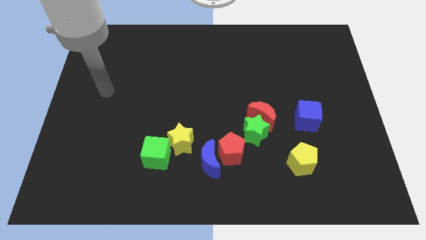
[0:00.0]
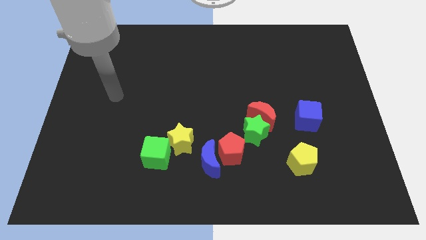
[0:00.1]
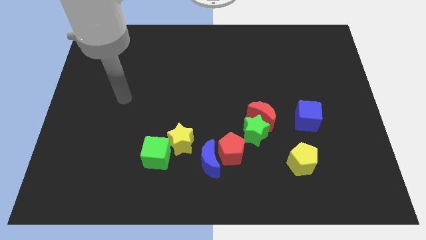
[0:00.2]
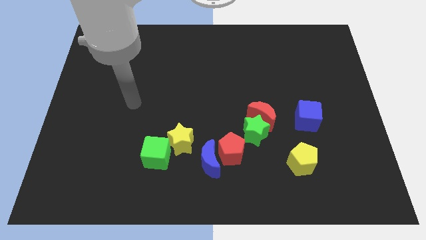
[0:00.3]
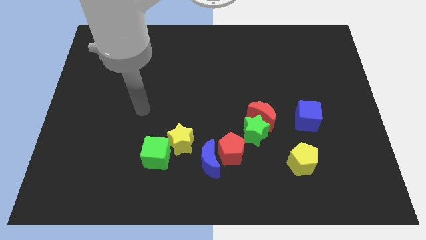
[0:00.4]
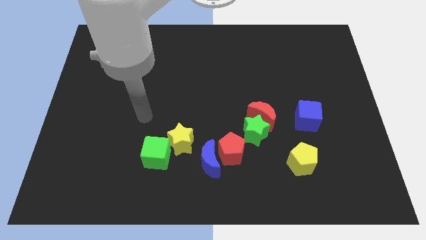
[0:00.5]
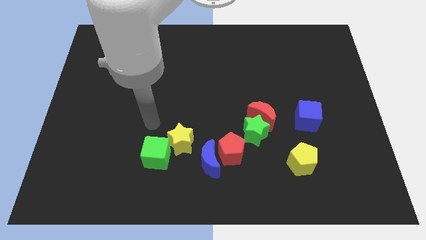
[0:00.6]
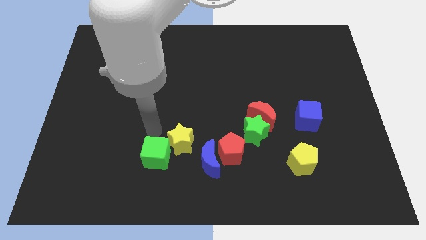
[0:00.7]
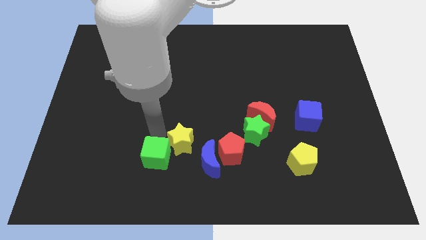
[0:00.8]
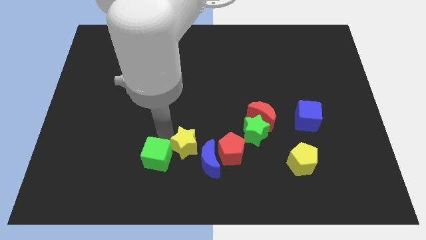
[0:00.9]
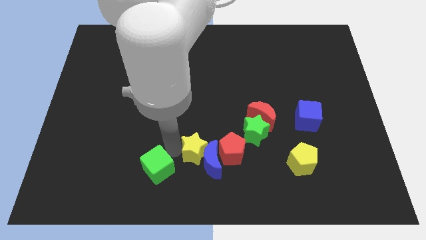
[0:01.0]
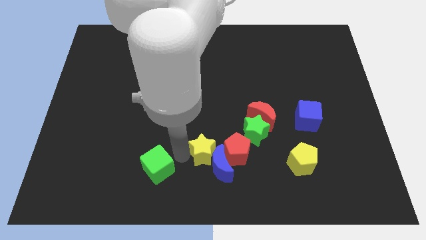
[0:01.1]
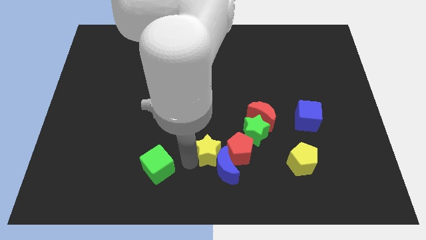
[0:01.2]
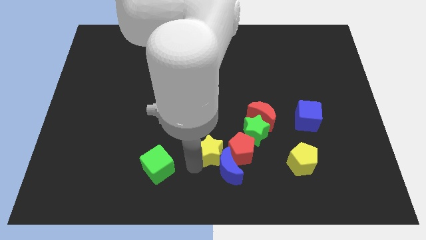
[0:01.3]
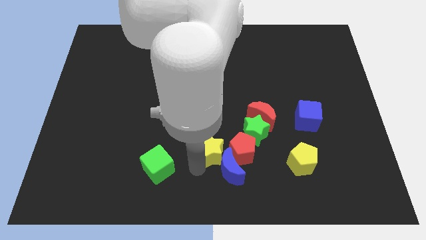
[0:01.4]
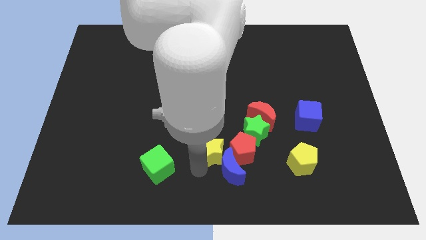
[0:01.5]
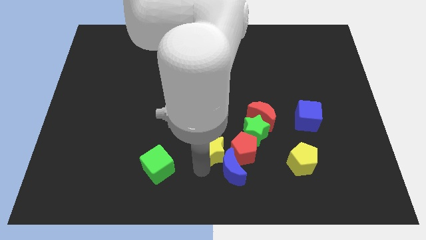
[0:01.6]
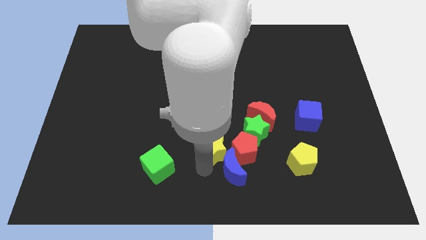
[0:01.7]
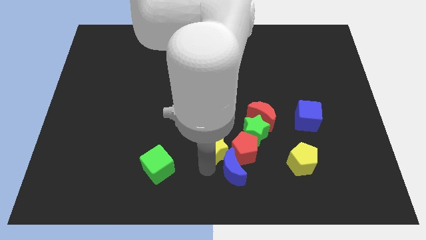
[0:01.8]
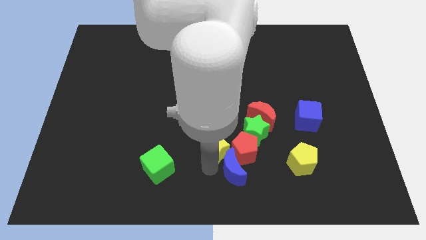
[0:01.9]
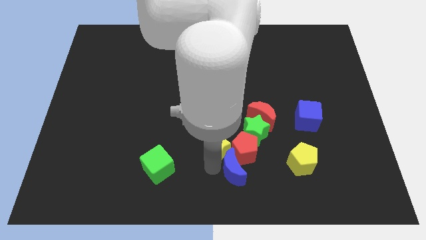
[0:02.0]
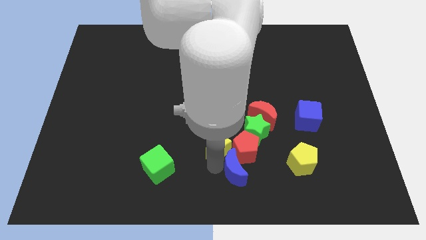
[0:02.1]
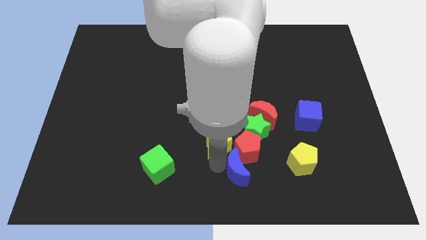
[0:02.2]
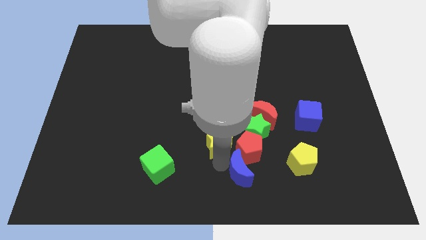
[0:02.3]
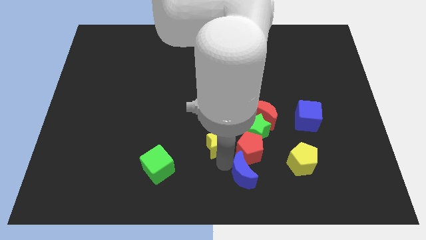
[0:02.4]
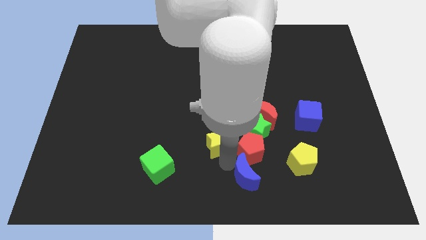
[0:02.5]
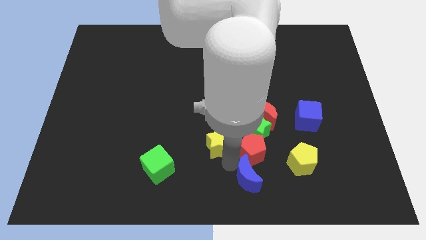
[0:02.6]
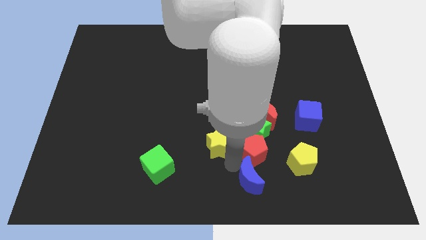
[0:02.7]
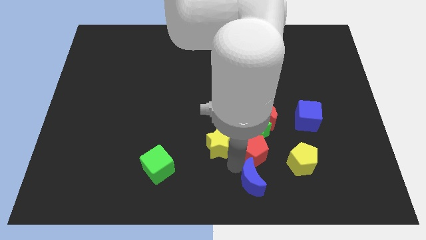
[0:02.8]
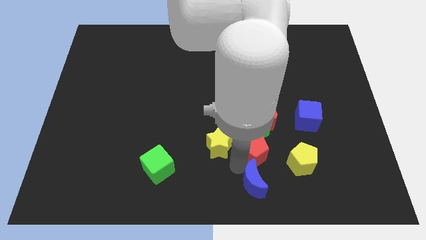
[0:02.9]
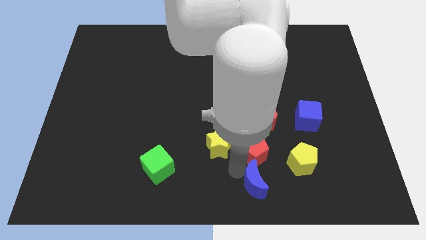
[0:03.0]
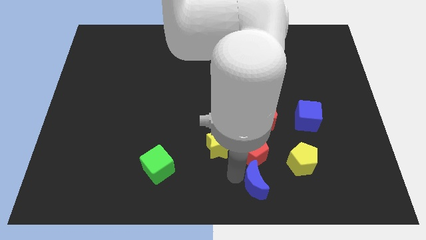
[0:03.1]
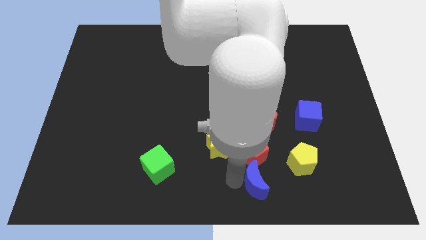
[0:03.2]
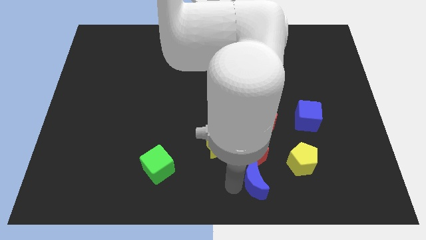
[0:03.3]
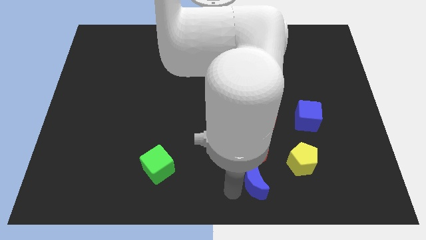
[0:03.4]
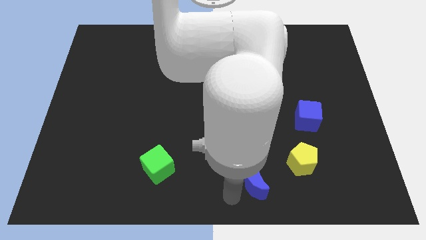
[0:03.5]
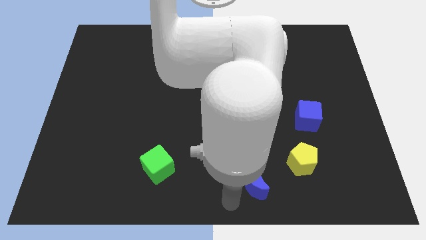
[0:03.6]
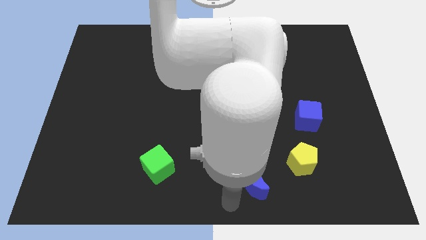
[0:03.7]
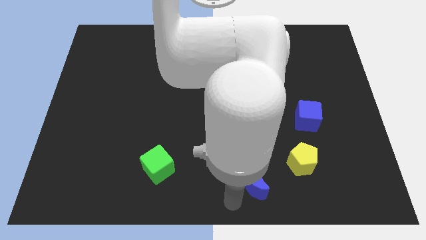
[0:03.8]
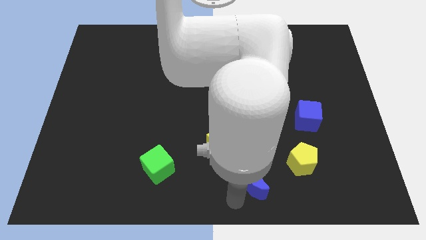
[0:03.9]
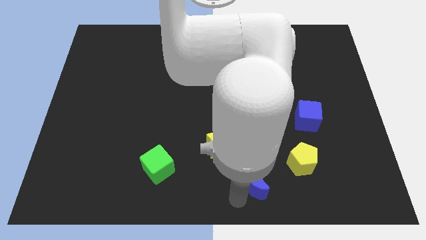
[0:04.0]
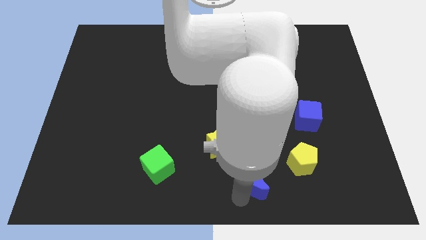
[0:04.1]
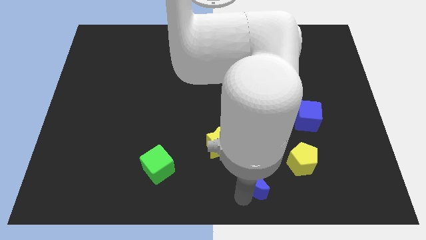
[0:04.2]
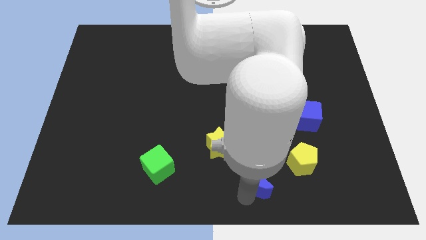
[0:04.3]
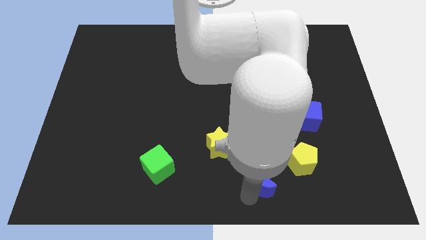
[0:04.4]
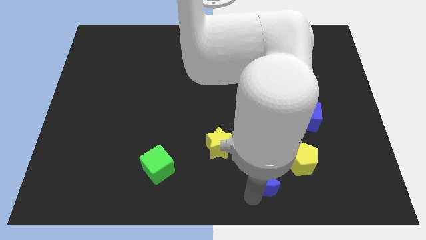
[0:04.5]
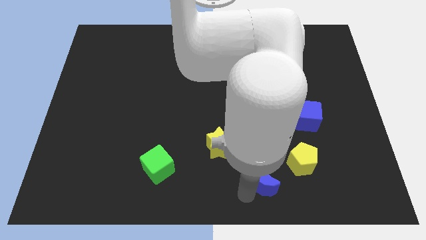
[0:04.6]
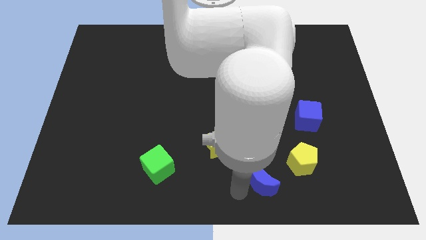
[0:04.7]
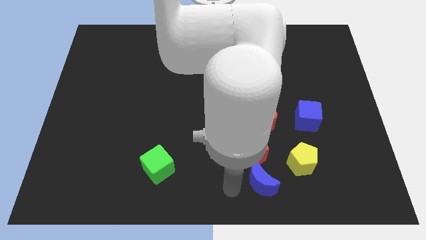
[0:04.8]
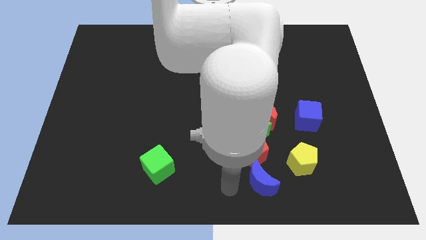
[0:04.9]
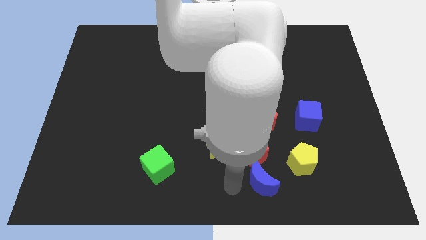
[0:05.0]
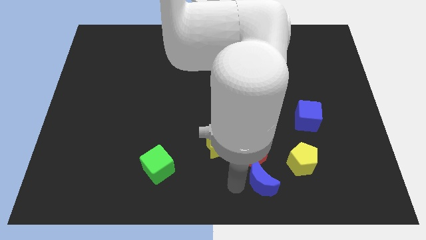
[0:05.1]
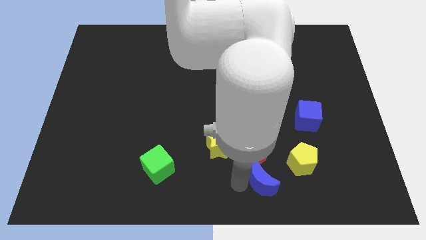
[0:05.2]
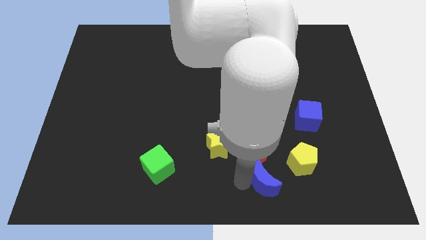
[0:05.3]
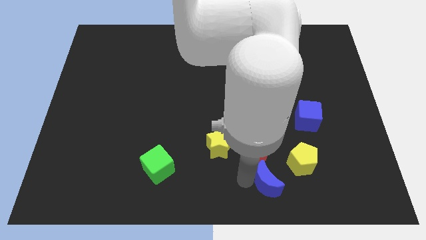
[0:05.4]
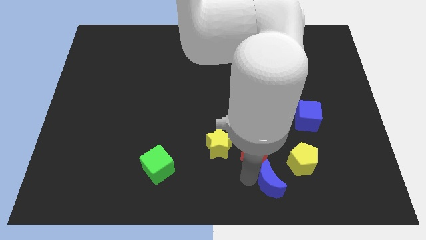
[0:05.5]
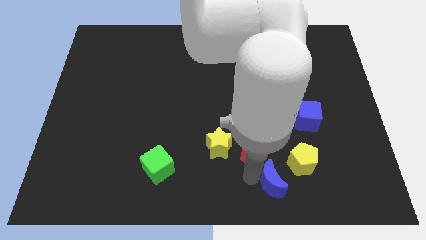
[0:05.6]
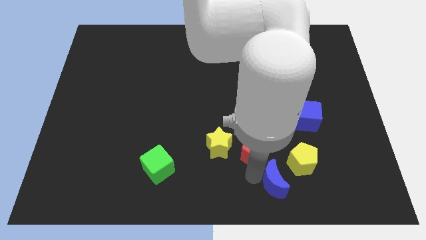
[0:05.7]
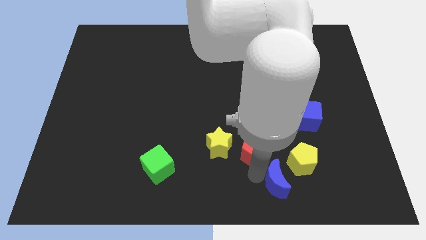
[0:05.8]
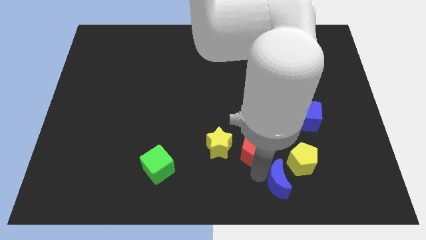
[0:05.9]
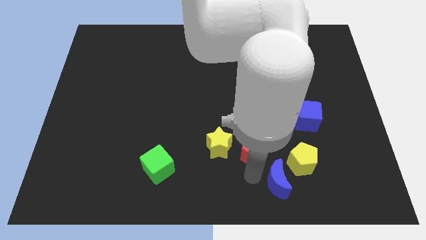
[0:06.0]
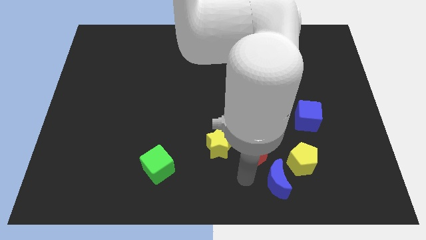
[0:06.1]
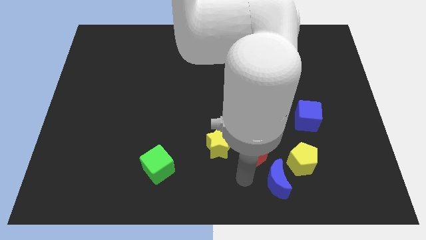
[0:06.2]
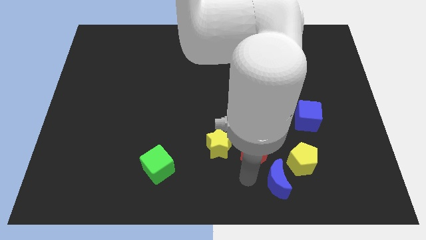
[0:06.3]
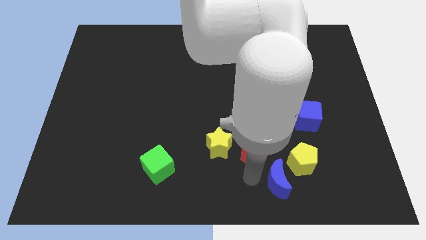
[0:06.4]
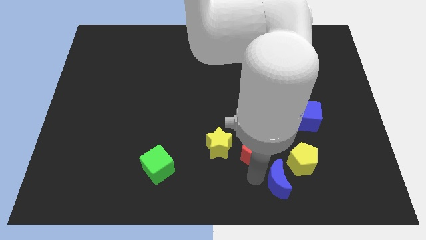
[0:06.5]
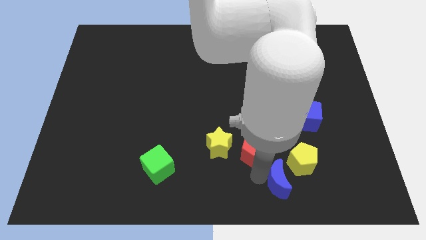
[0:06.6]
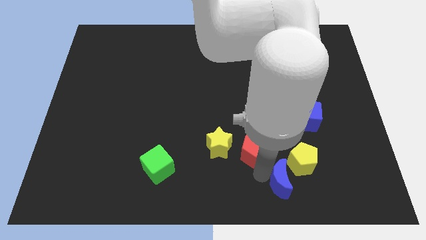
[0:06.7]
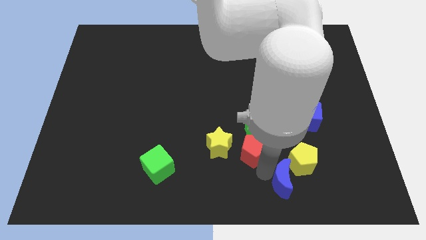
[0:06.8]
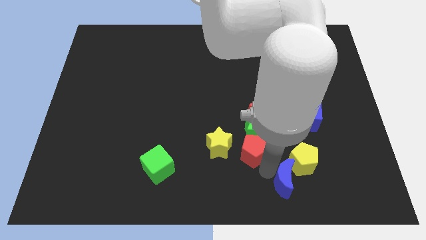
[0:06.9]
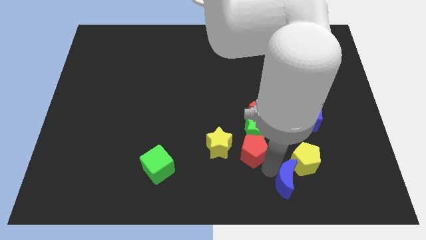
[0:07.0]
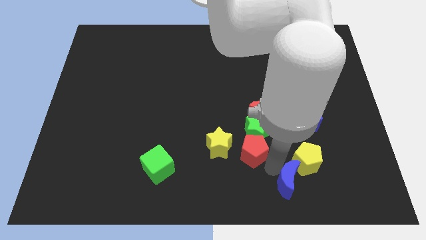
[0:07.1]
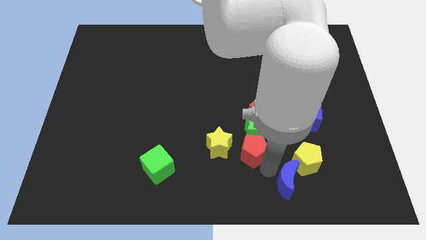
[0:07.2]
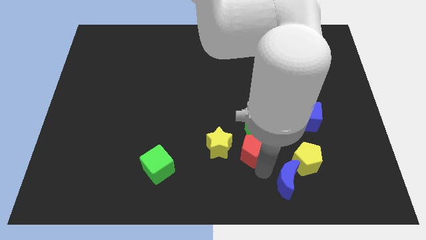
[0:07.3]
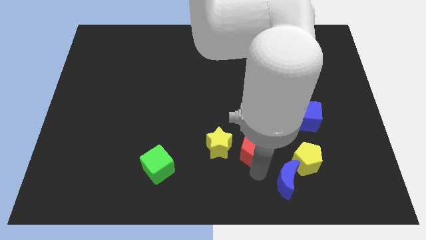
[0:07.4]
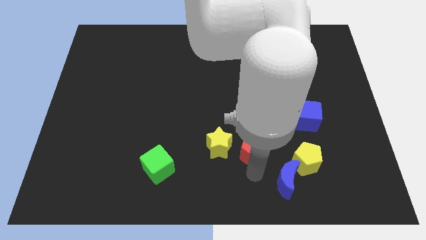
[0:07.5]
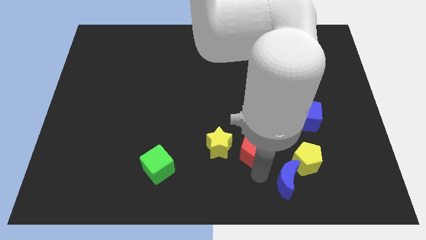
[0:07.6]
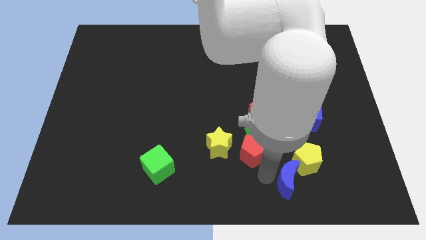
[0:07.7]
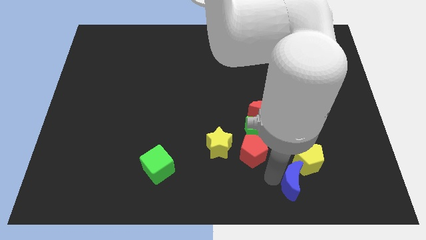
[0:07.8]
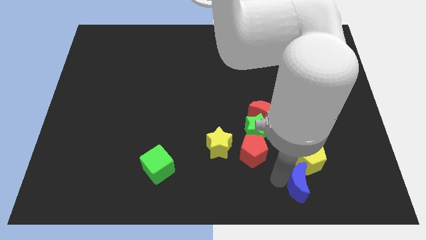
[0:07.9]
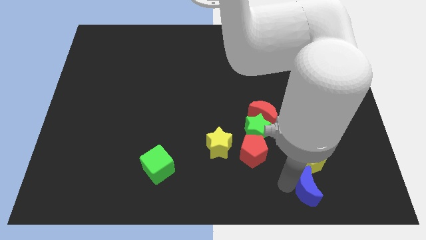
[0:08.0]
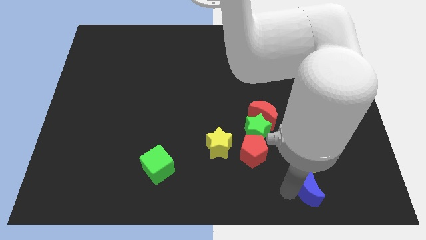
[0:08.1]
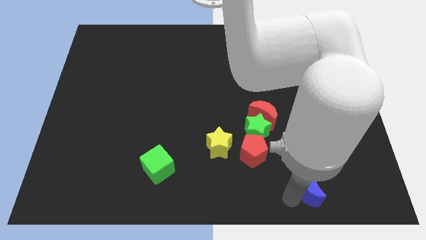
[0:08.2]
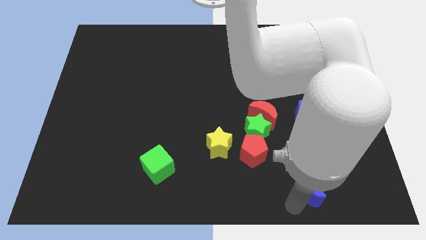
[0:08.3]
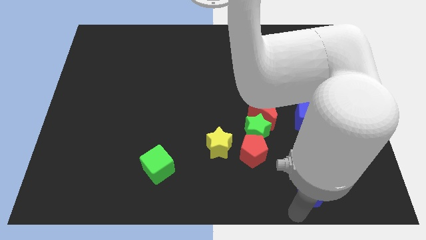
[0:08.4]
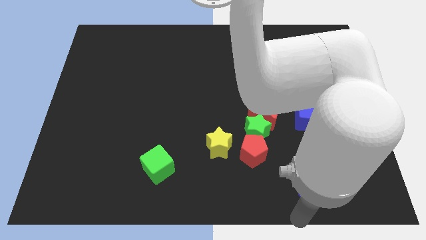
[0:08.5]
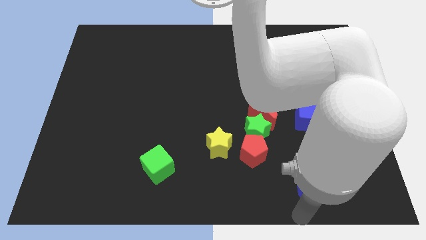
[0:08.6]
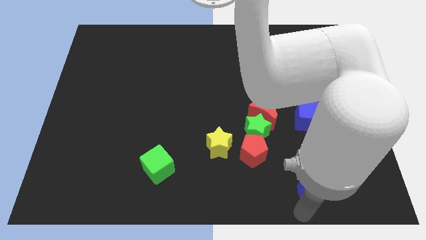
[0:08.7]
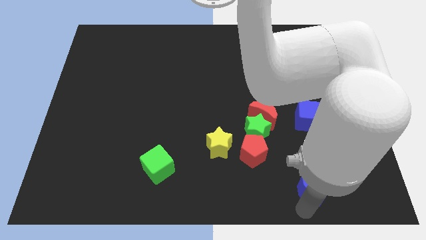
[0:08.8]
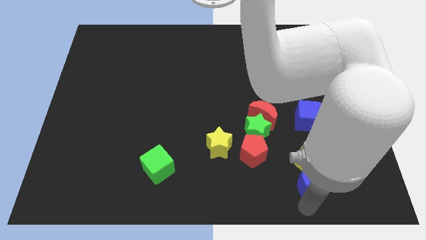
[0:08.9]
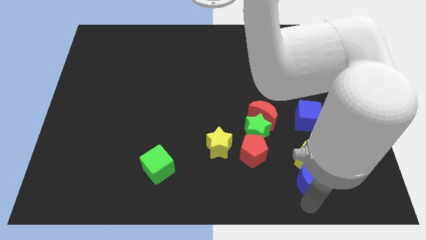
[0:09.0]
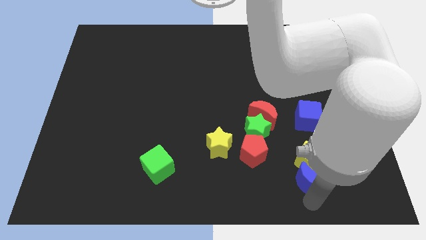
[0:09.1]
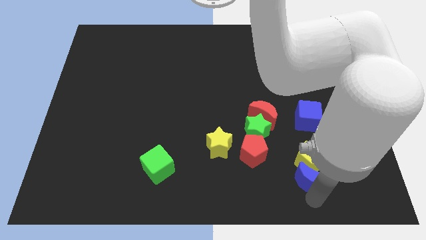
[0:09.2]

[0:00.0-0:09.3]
put the blue moon to the bottom side of the blue cube
